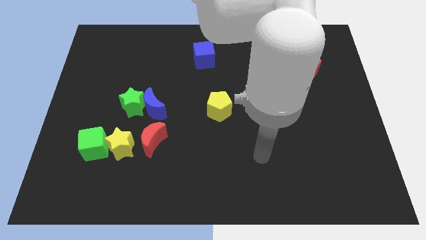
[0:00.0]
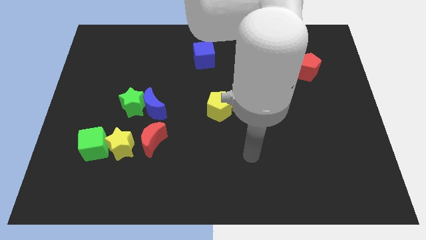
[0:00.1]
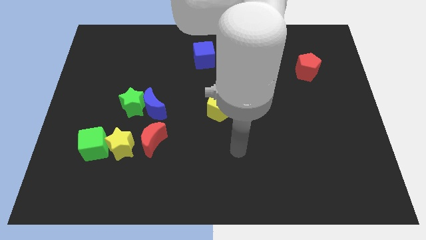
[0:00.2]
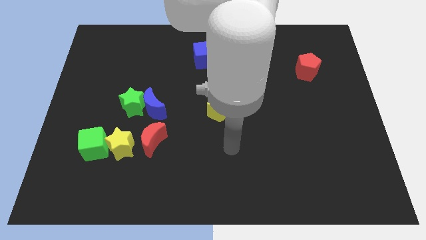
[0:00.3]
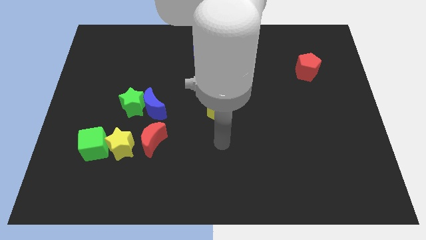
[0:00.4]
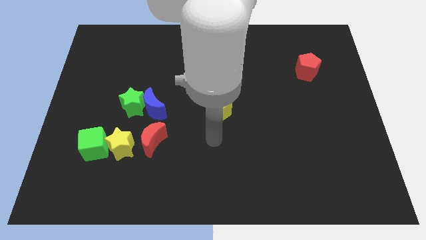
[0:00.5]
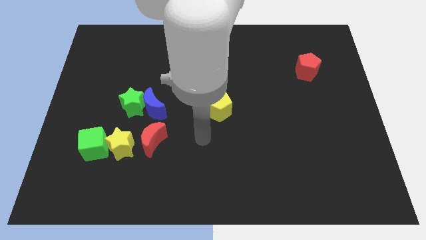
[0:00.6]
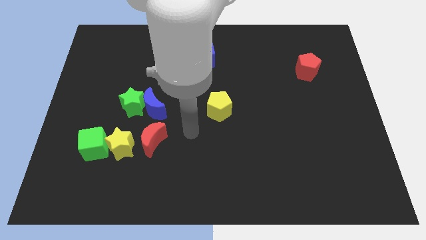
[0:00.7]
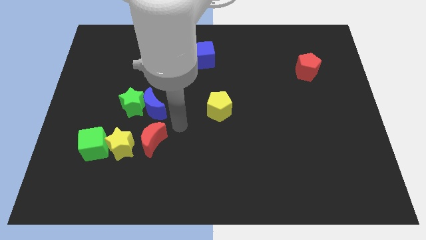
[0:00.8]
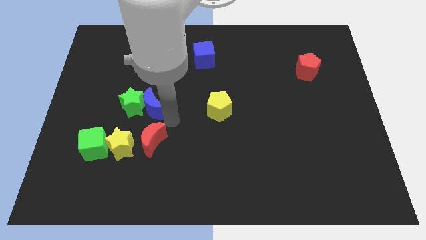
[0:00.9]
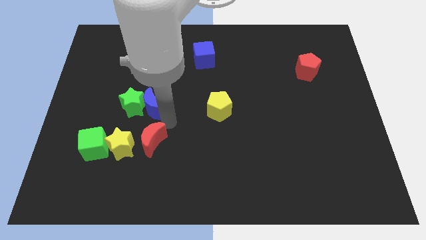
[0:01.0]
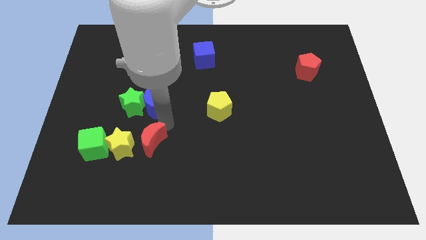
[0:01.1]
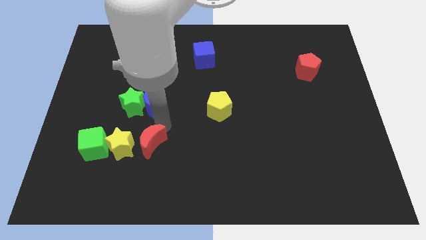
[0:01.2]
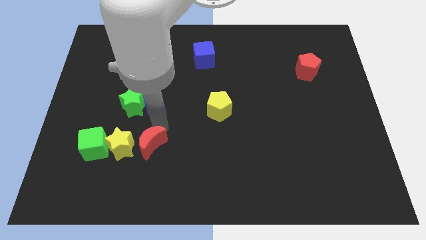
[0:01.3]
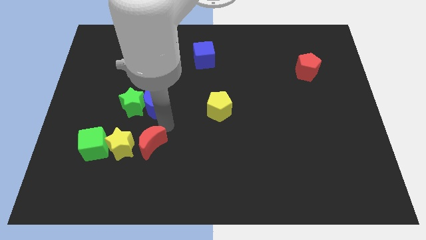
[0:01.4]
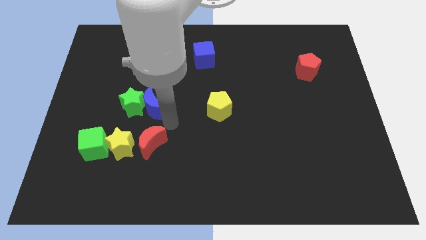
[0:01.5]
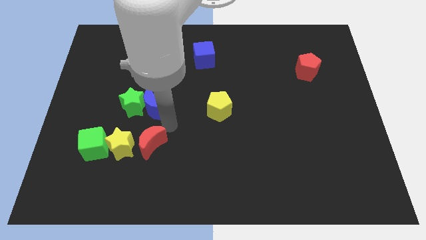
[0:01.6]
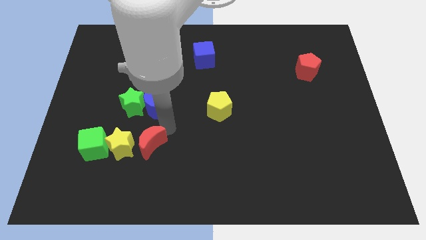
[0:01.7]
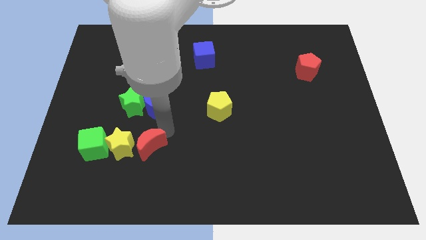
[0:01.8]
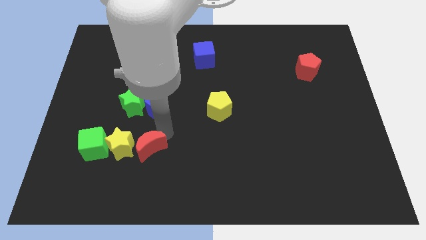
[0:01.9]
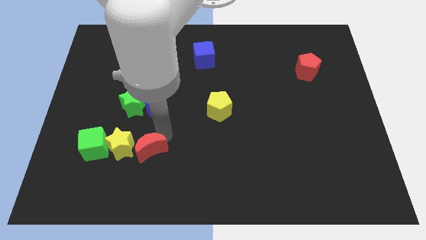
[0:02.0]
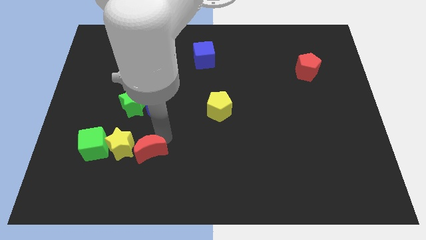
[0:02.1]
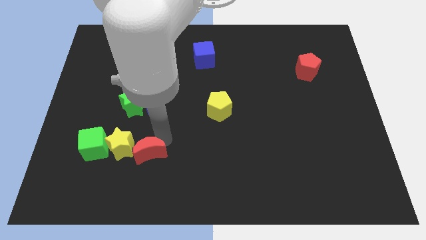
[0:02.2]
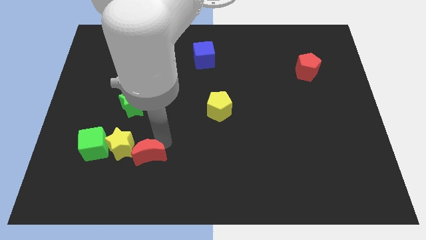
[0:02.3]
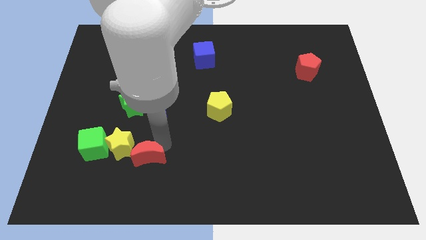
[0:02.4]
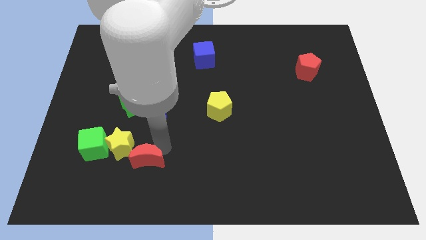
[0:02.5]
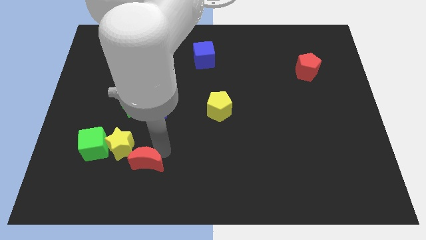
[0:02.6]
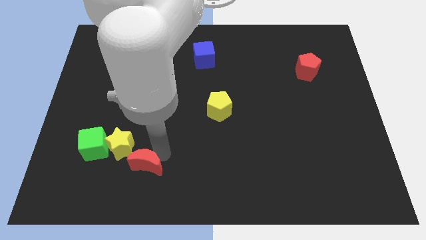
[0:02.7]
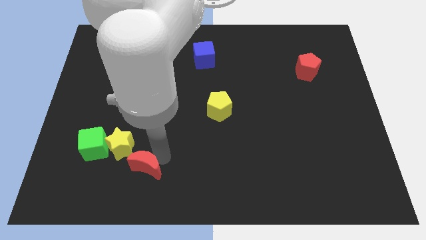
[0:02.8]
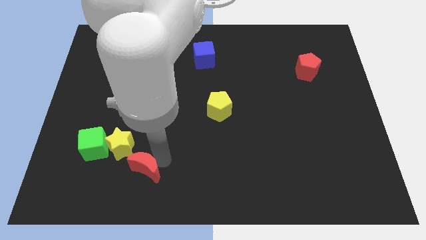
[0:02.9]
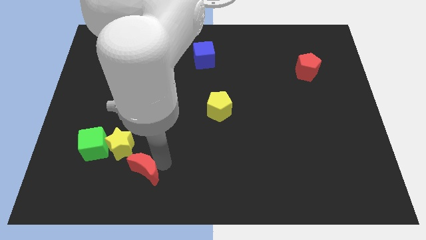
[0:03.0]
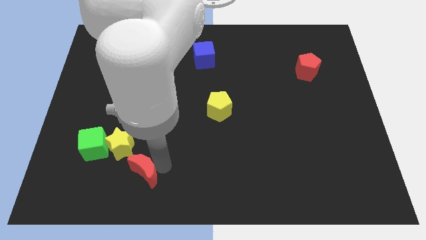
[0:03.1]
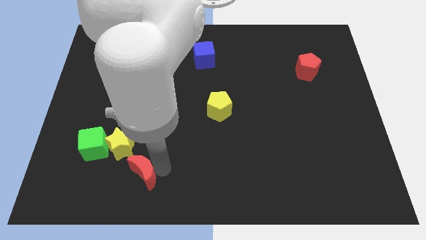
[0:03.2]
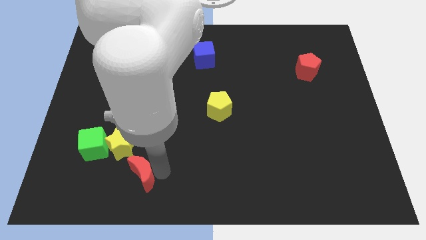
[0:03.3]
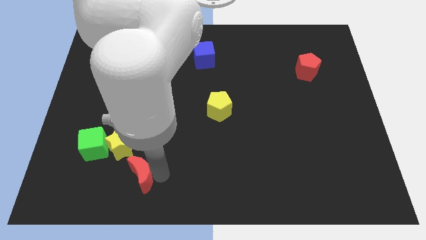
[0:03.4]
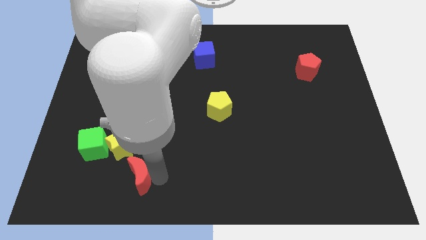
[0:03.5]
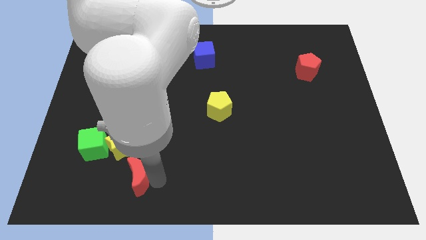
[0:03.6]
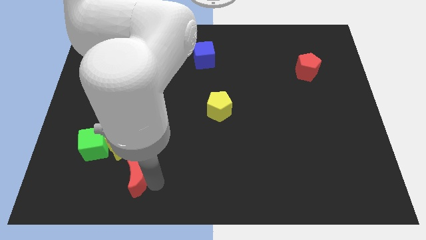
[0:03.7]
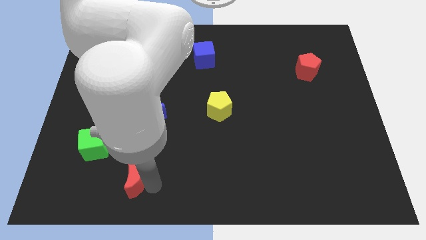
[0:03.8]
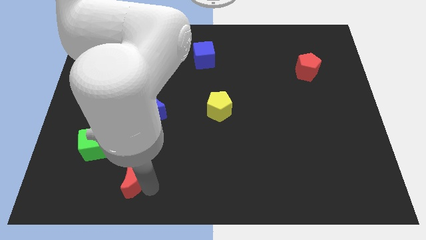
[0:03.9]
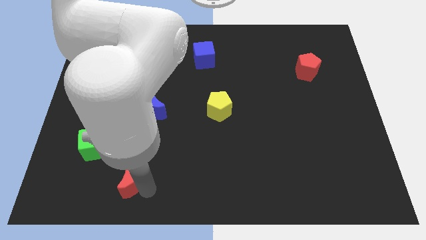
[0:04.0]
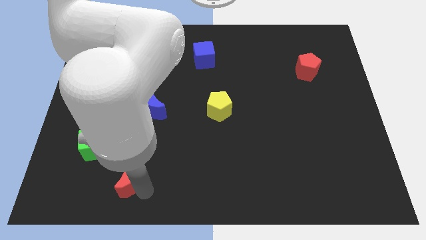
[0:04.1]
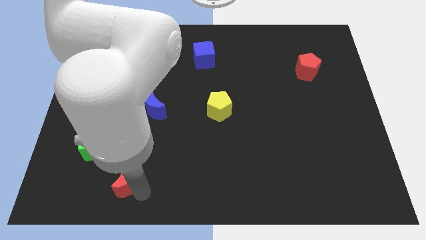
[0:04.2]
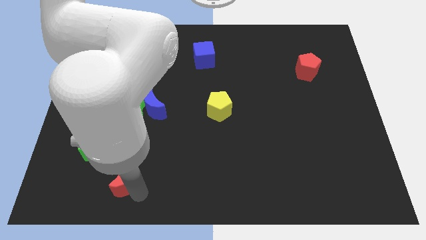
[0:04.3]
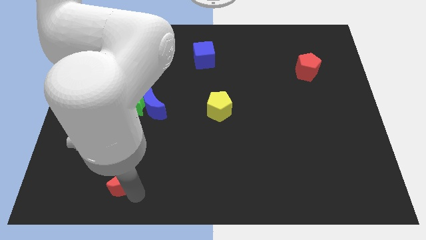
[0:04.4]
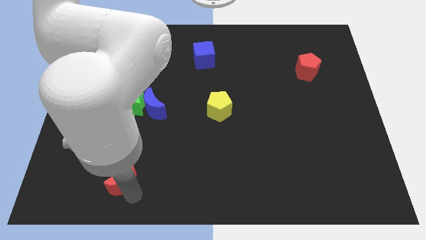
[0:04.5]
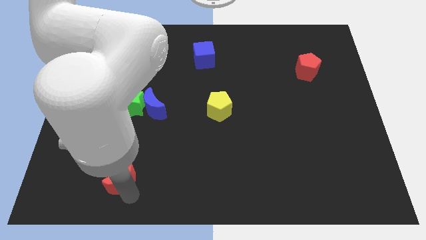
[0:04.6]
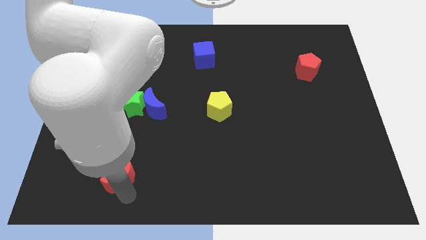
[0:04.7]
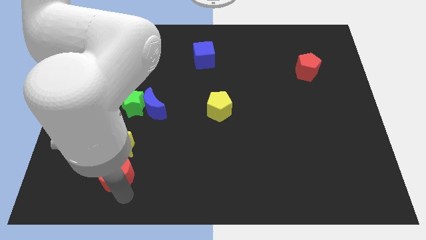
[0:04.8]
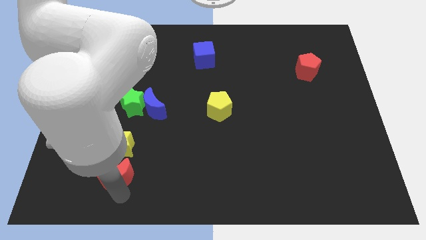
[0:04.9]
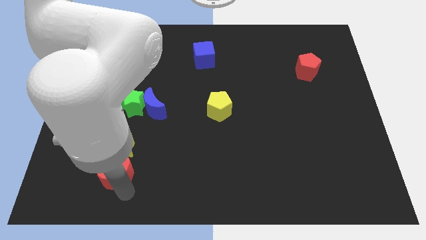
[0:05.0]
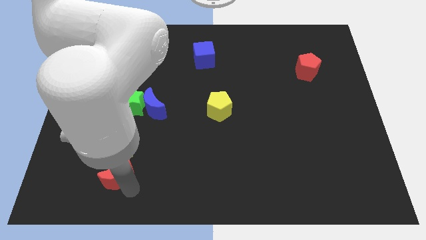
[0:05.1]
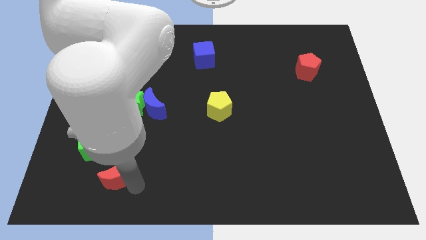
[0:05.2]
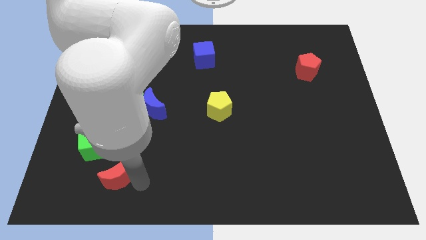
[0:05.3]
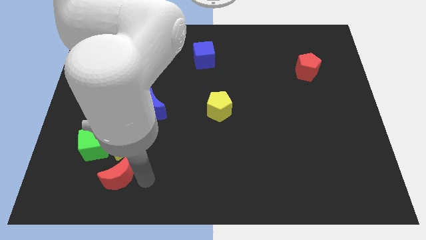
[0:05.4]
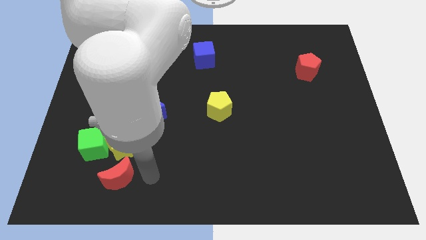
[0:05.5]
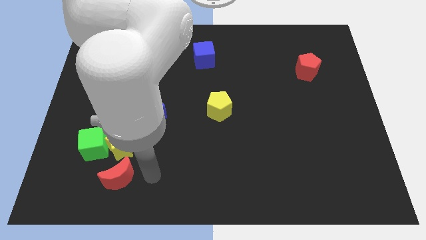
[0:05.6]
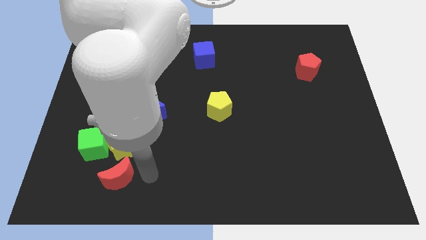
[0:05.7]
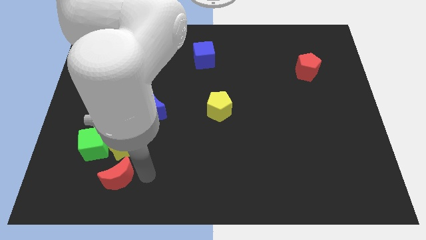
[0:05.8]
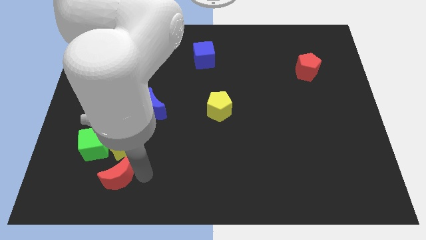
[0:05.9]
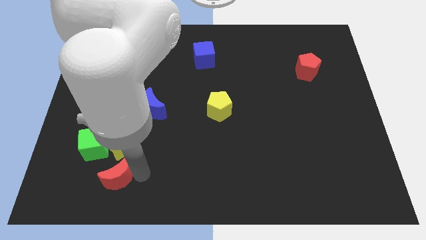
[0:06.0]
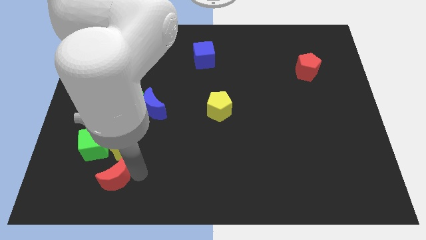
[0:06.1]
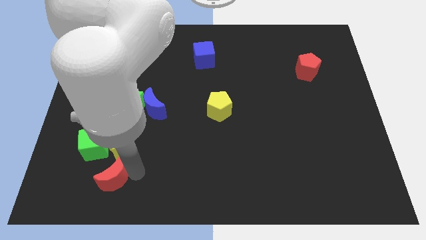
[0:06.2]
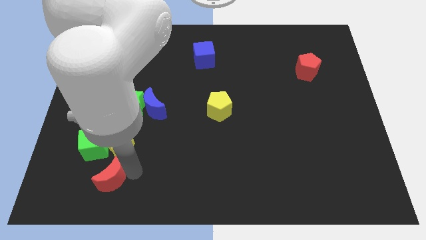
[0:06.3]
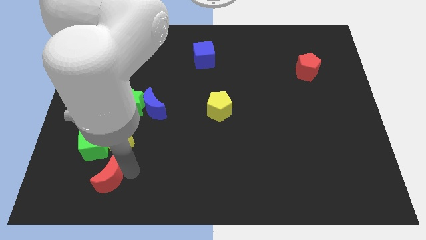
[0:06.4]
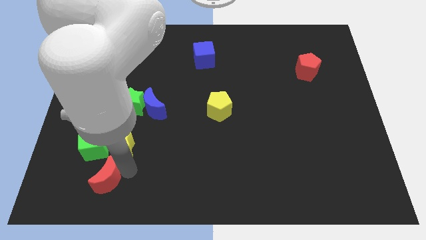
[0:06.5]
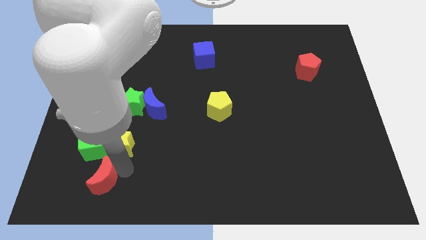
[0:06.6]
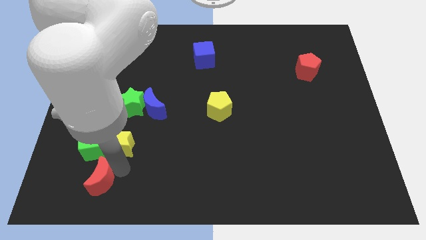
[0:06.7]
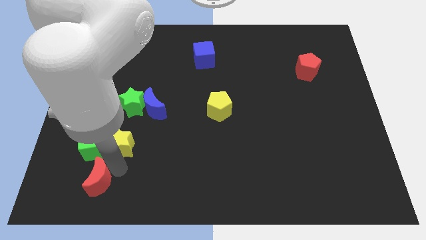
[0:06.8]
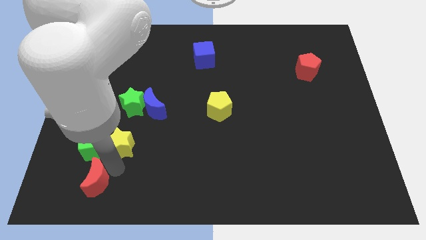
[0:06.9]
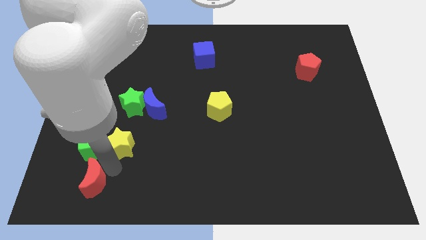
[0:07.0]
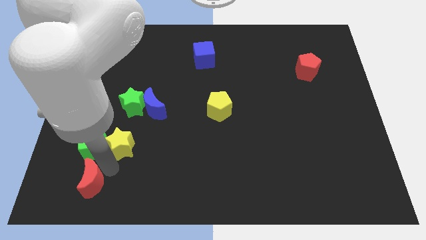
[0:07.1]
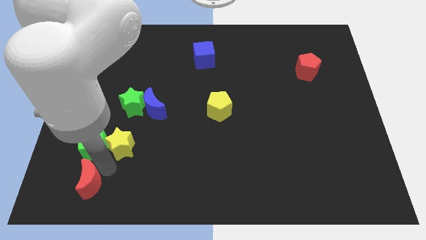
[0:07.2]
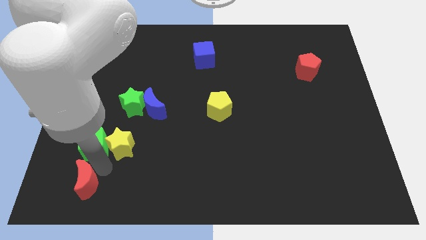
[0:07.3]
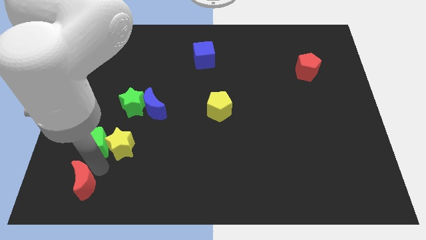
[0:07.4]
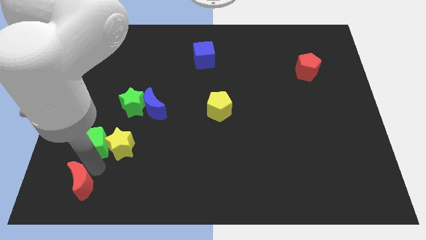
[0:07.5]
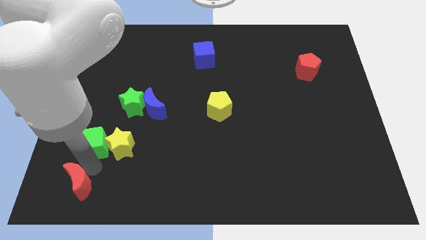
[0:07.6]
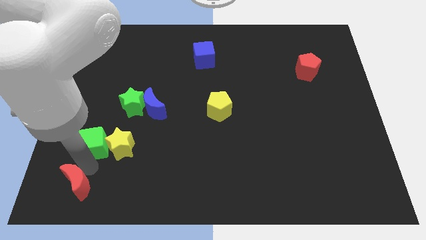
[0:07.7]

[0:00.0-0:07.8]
move the red moon to the bottom left corner
